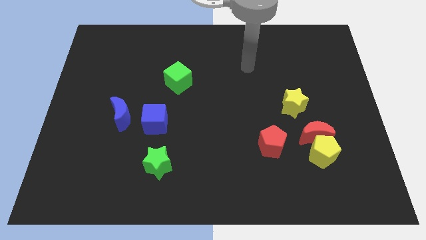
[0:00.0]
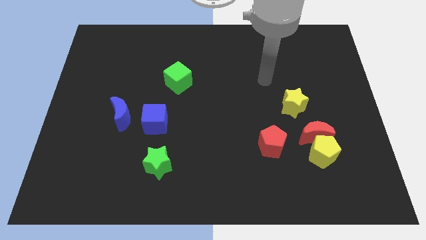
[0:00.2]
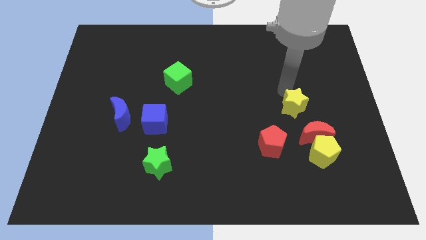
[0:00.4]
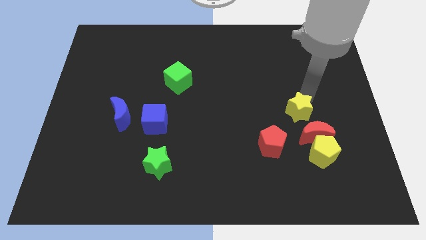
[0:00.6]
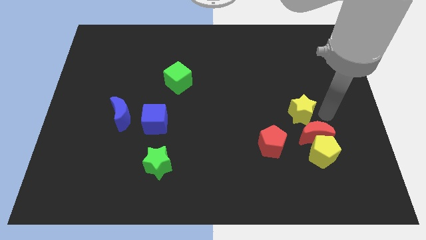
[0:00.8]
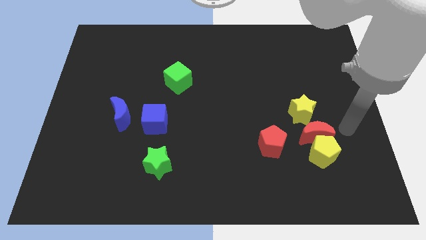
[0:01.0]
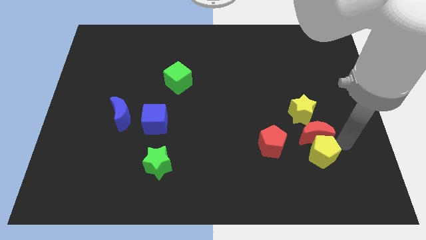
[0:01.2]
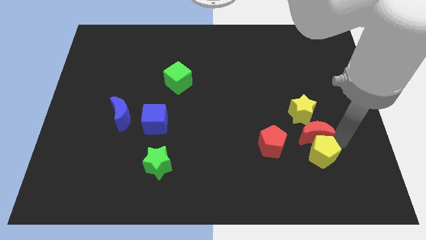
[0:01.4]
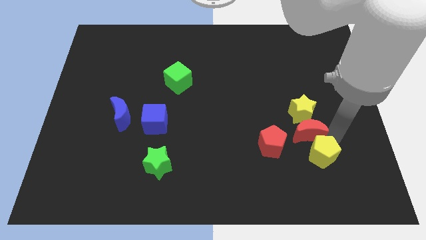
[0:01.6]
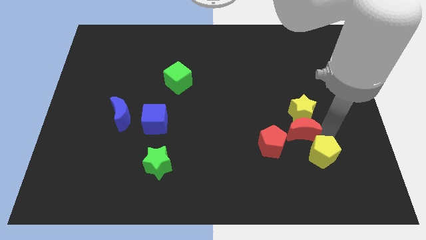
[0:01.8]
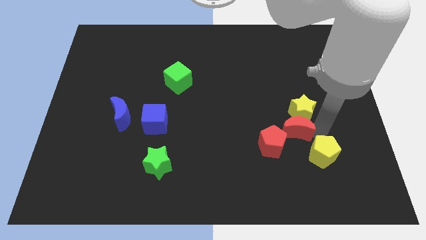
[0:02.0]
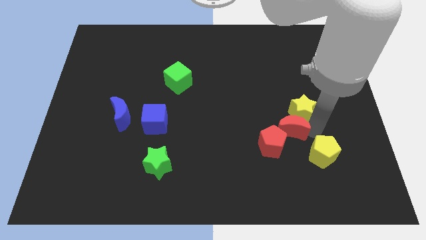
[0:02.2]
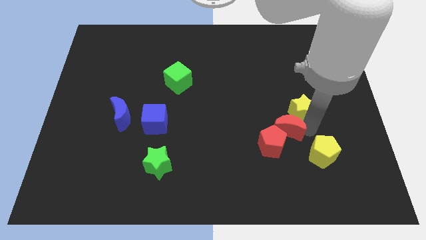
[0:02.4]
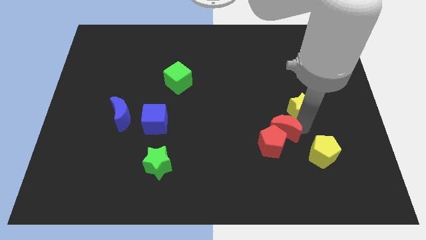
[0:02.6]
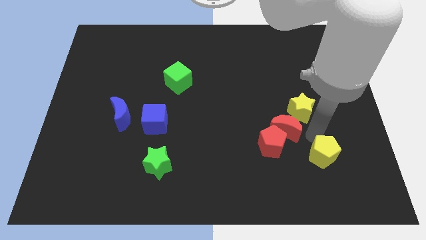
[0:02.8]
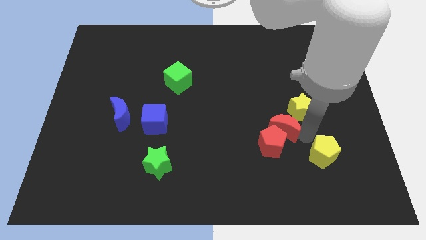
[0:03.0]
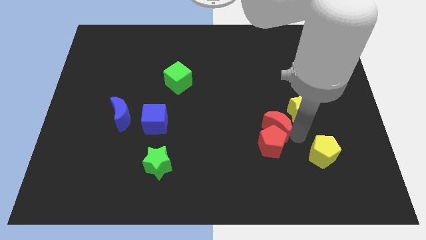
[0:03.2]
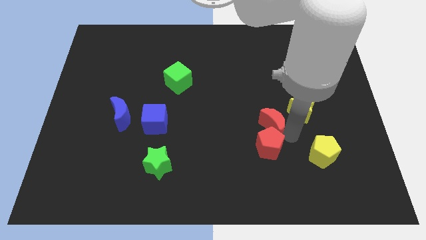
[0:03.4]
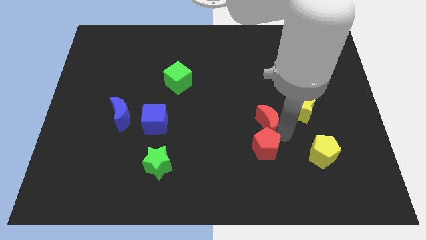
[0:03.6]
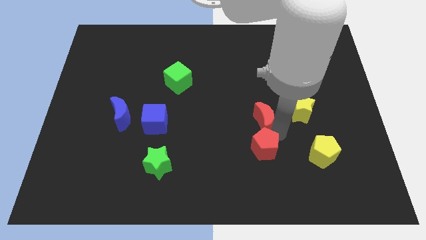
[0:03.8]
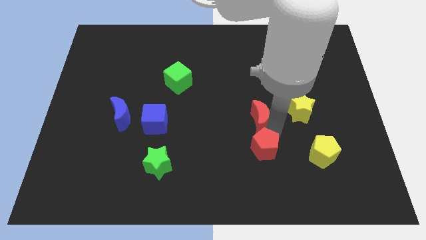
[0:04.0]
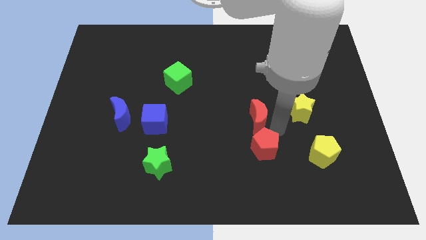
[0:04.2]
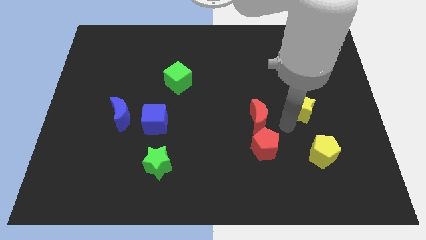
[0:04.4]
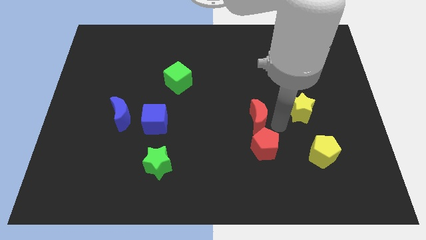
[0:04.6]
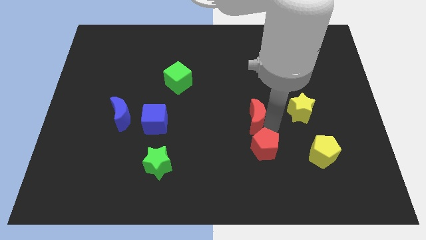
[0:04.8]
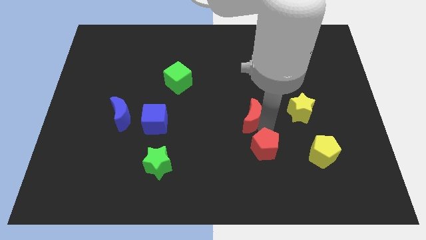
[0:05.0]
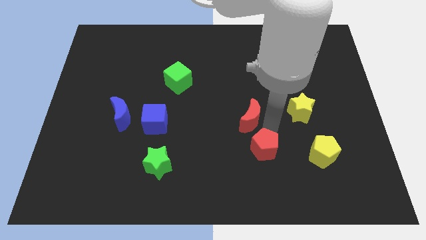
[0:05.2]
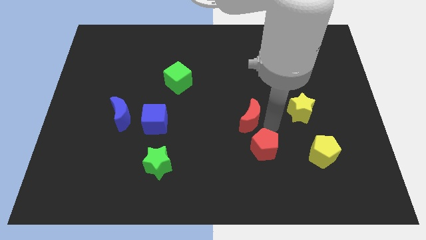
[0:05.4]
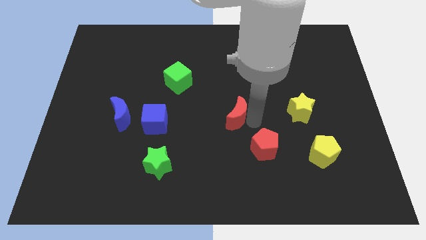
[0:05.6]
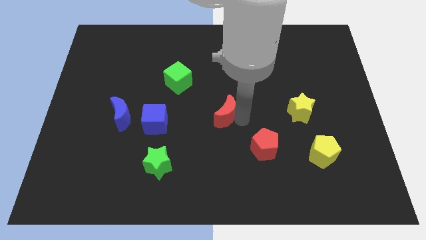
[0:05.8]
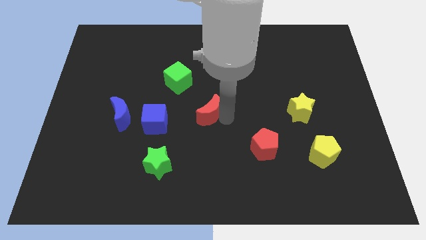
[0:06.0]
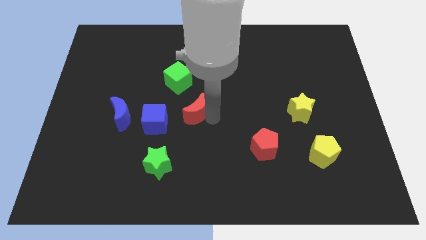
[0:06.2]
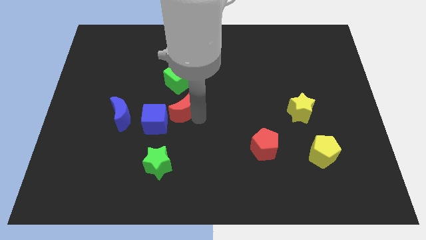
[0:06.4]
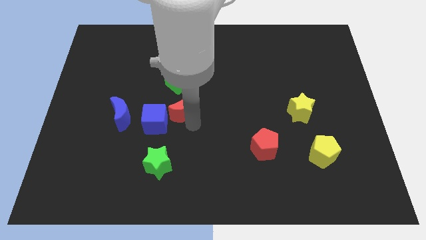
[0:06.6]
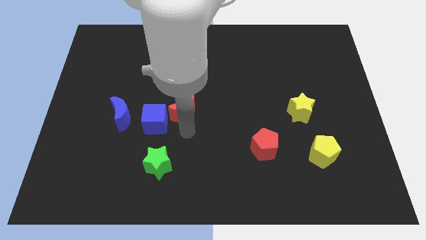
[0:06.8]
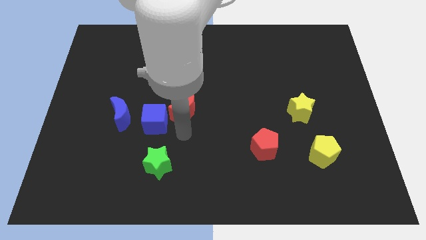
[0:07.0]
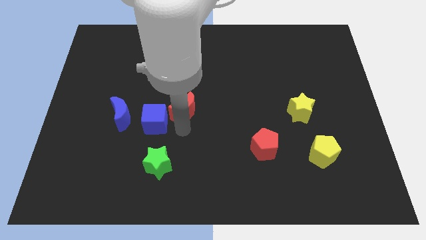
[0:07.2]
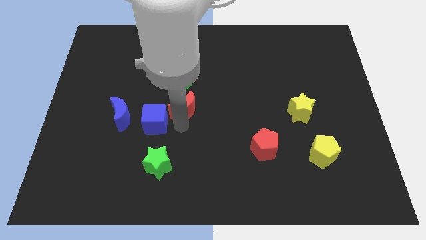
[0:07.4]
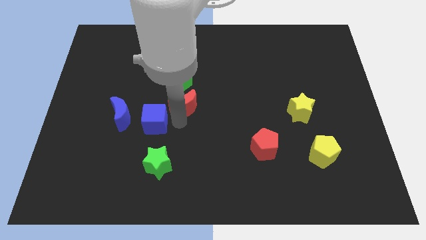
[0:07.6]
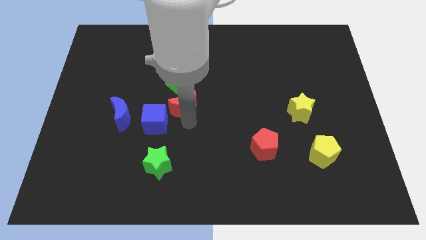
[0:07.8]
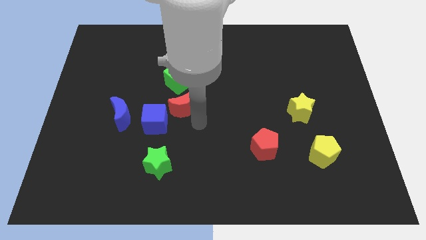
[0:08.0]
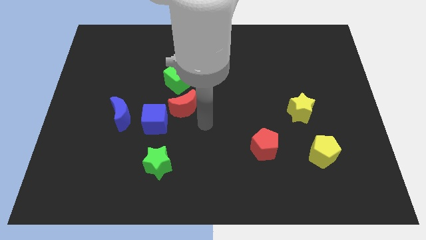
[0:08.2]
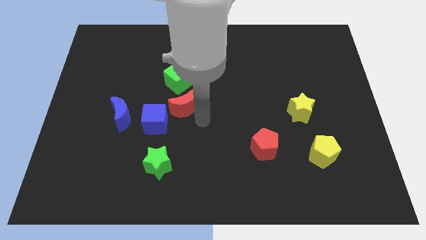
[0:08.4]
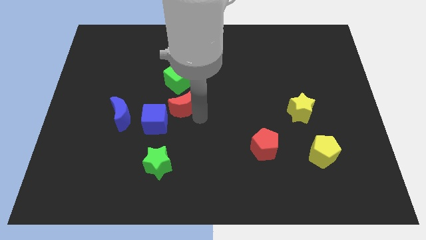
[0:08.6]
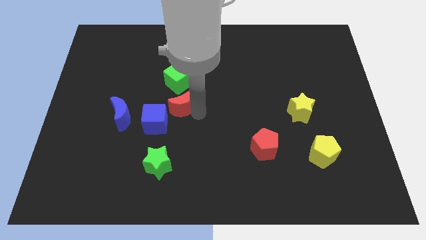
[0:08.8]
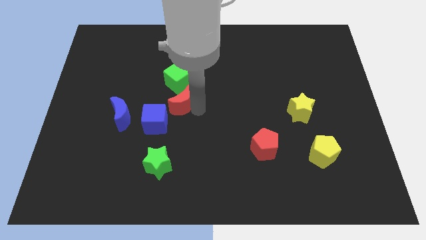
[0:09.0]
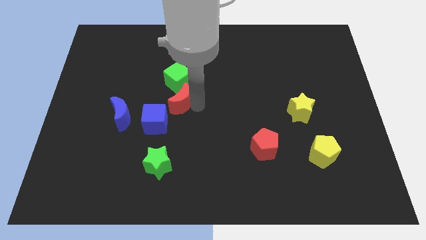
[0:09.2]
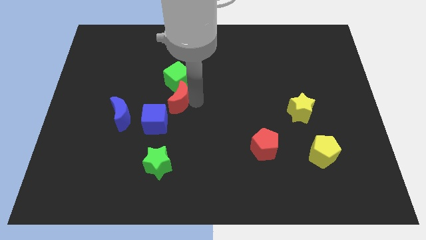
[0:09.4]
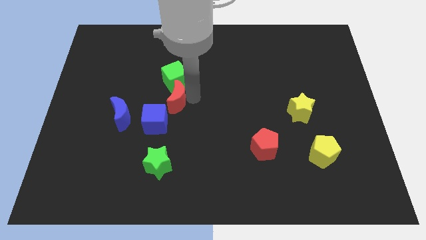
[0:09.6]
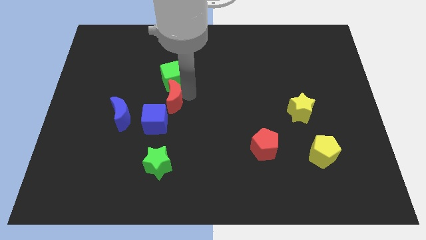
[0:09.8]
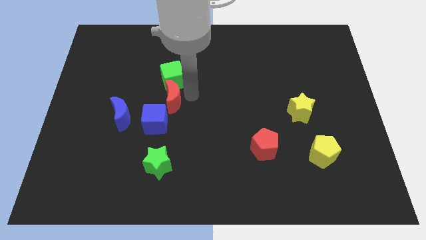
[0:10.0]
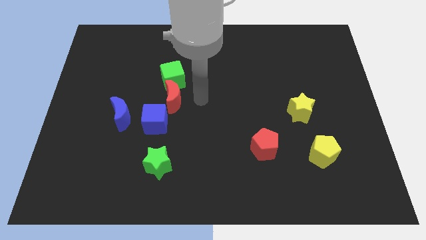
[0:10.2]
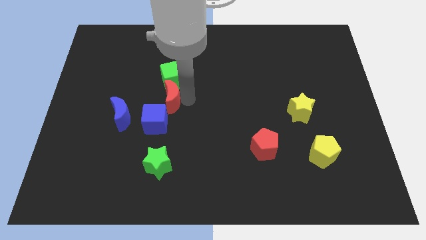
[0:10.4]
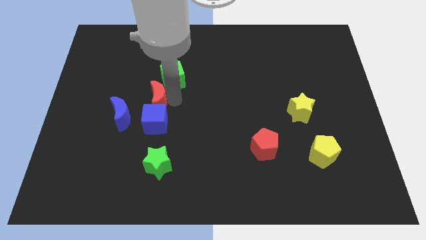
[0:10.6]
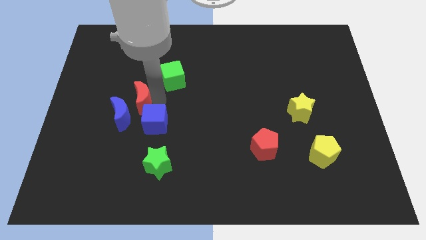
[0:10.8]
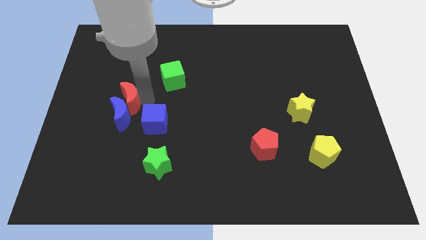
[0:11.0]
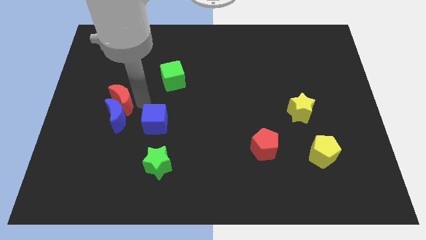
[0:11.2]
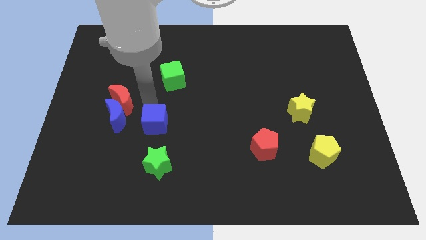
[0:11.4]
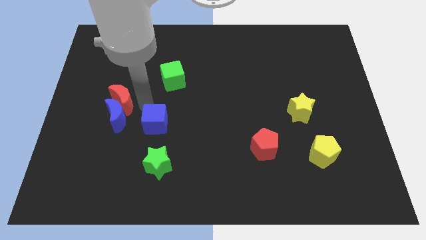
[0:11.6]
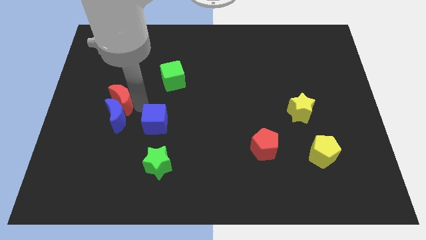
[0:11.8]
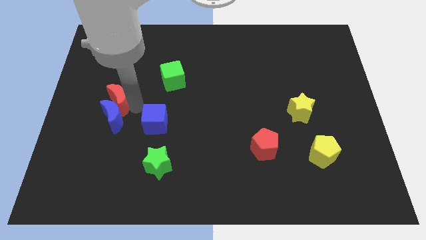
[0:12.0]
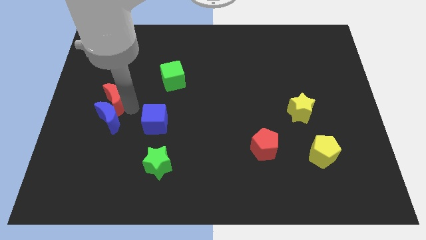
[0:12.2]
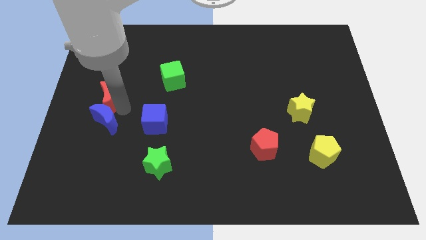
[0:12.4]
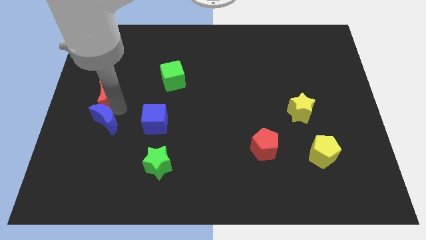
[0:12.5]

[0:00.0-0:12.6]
move the red moon to the left side
